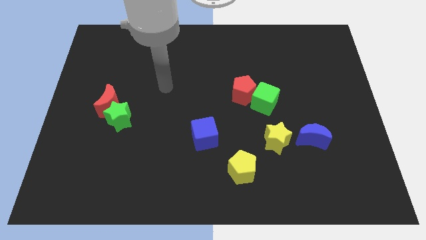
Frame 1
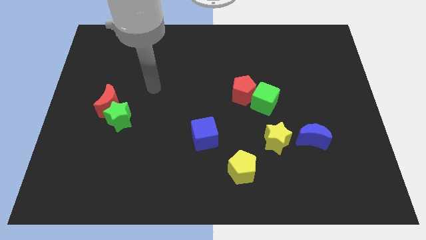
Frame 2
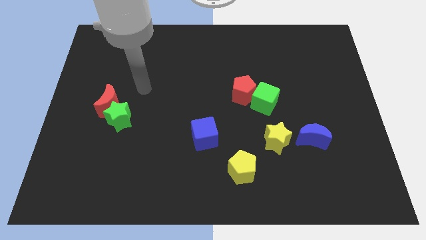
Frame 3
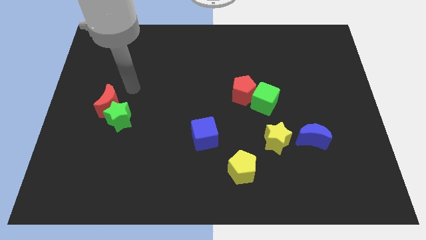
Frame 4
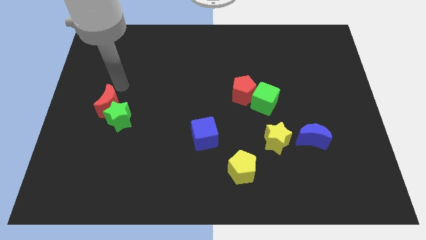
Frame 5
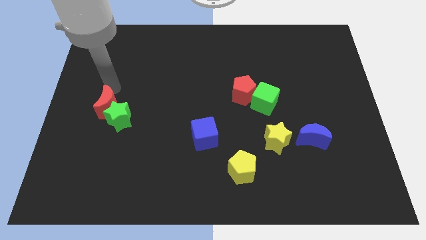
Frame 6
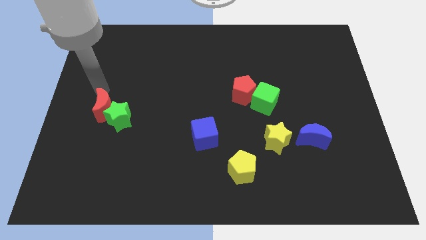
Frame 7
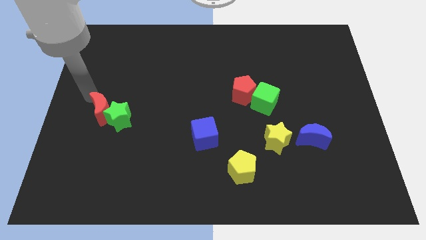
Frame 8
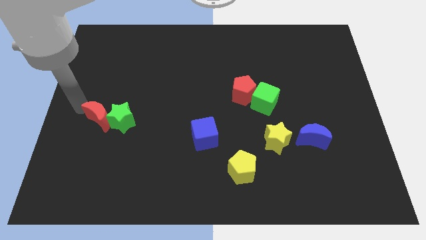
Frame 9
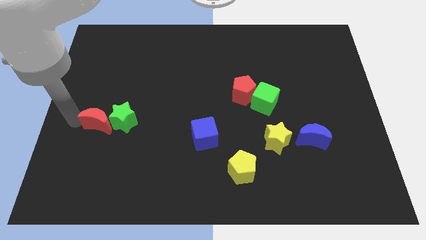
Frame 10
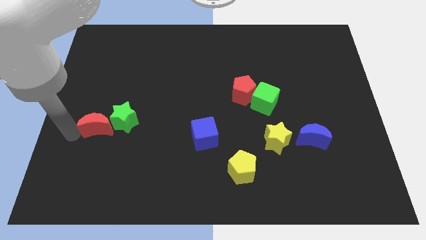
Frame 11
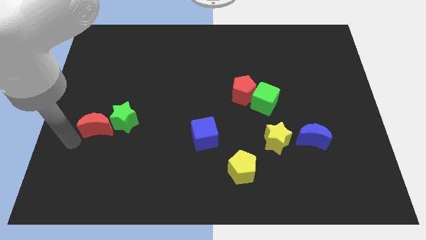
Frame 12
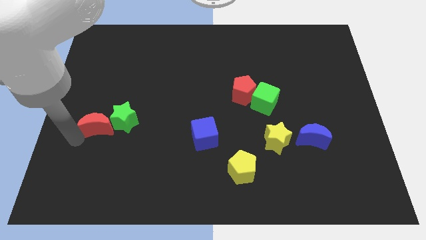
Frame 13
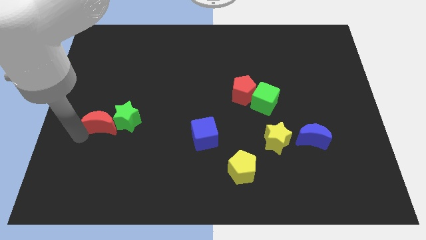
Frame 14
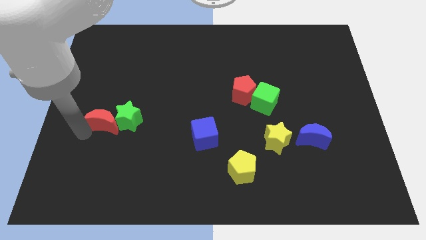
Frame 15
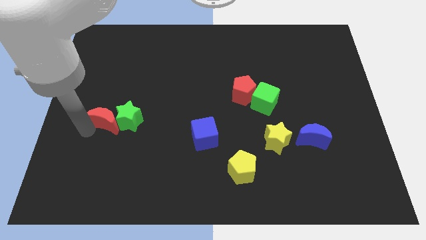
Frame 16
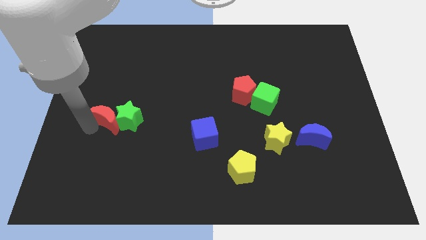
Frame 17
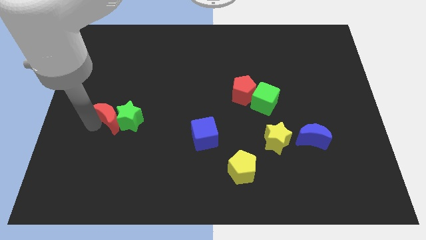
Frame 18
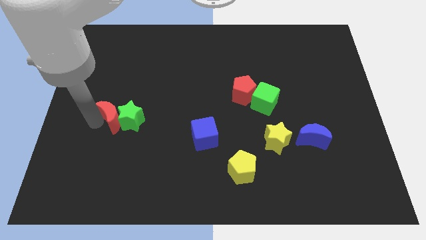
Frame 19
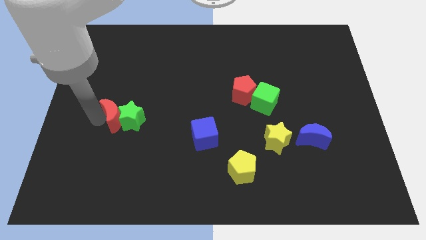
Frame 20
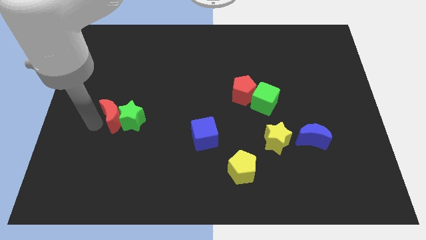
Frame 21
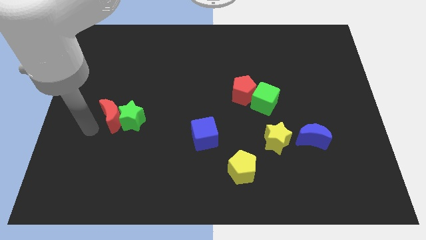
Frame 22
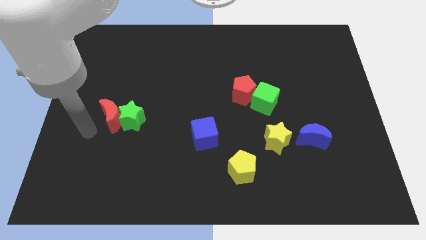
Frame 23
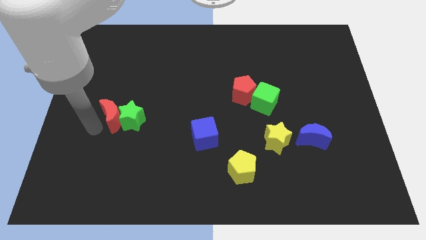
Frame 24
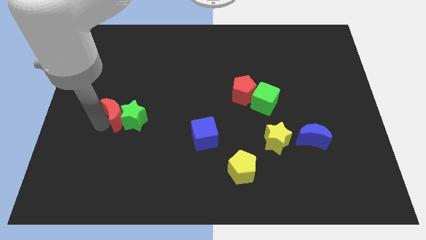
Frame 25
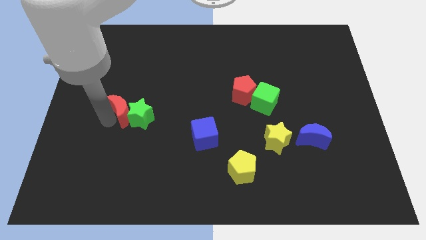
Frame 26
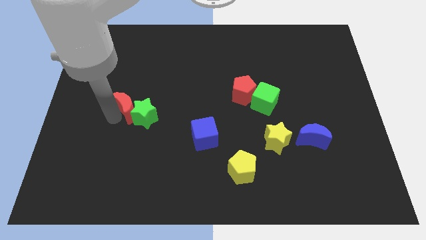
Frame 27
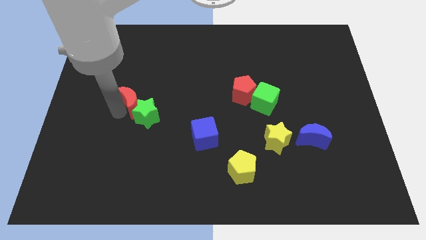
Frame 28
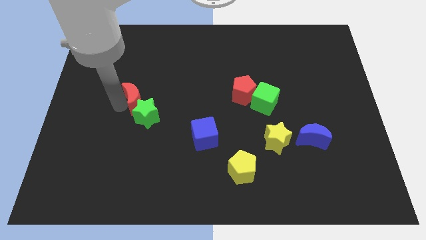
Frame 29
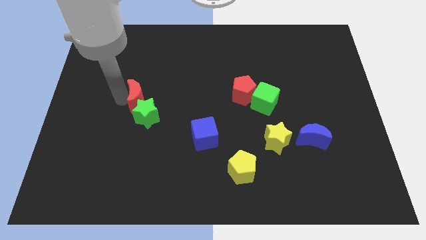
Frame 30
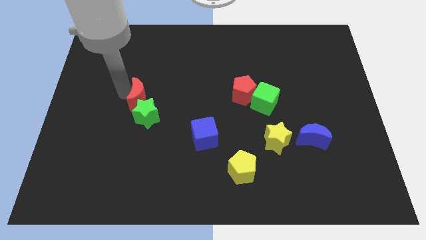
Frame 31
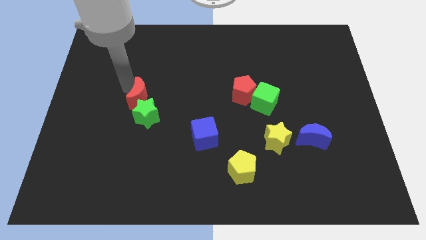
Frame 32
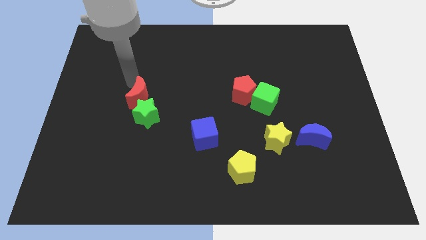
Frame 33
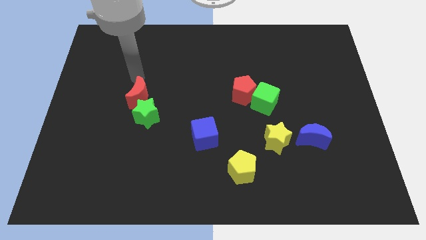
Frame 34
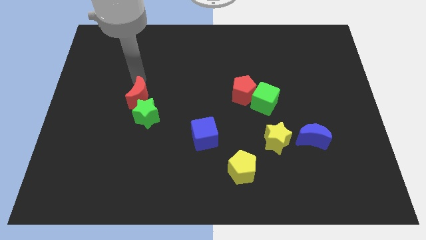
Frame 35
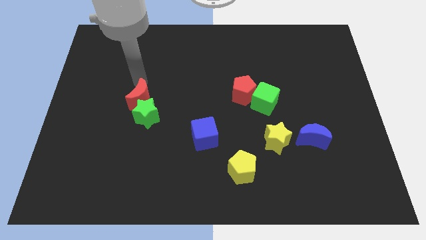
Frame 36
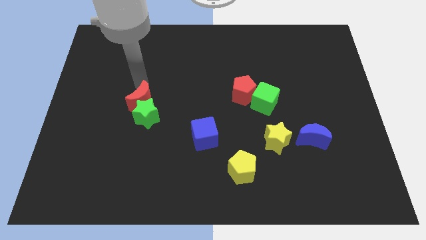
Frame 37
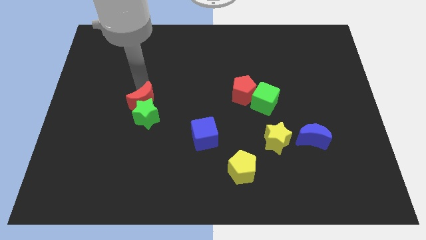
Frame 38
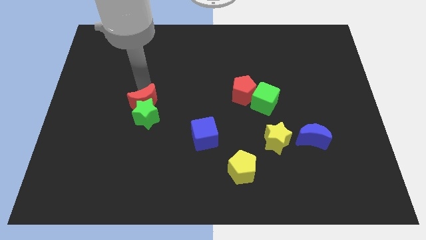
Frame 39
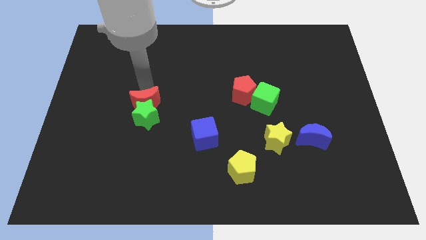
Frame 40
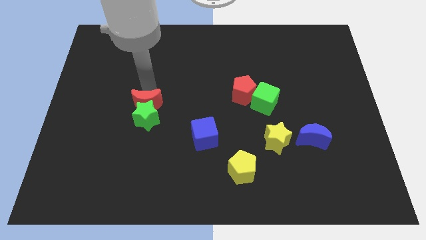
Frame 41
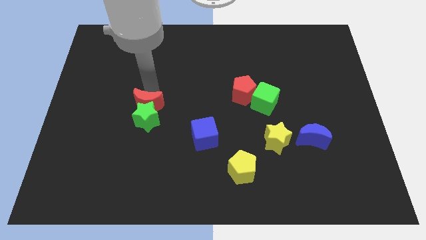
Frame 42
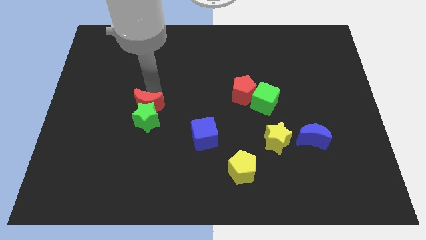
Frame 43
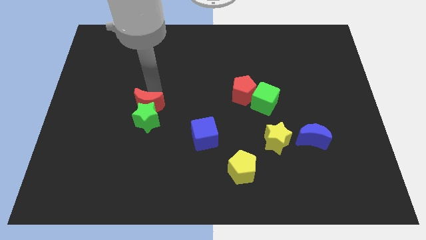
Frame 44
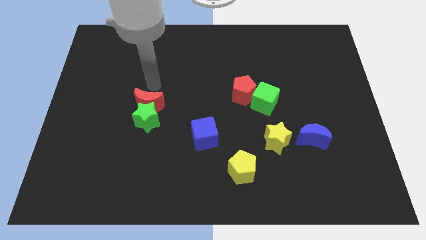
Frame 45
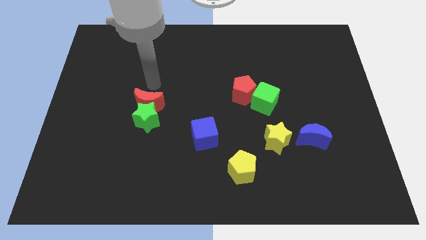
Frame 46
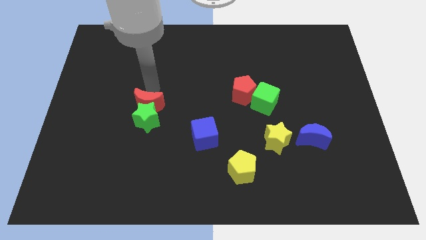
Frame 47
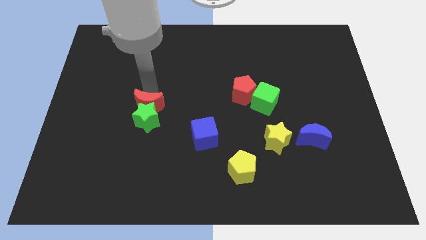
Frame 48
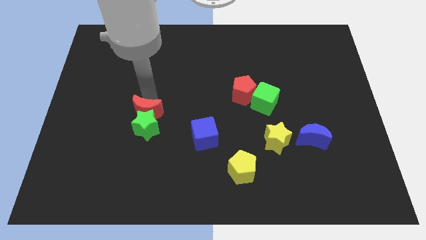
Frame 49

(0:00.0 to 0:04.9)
slightly slide the red moon downwards and right

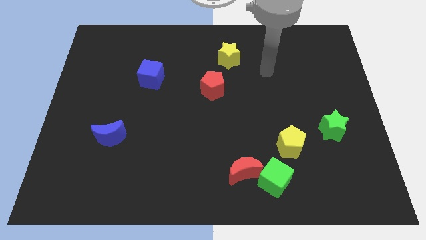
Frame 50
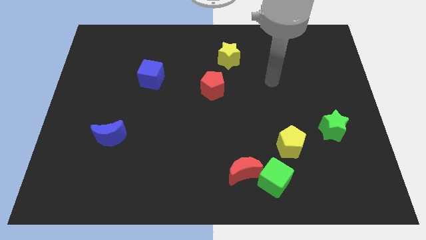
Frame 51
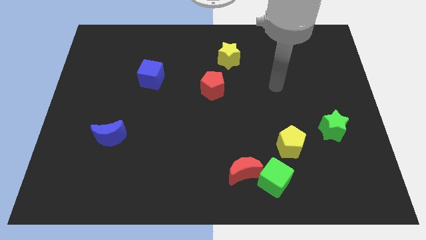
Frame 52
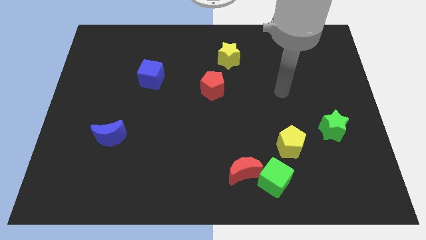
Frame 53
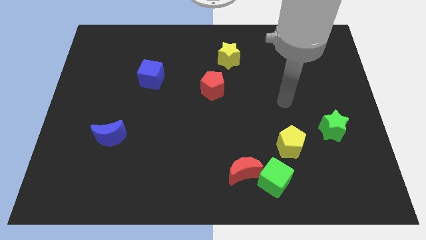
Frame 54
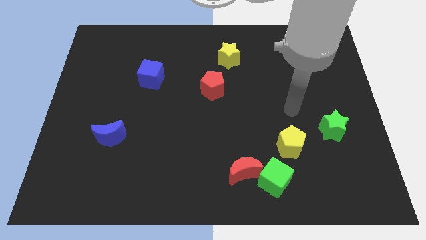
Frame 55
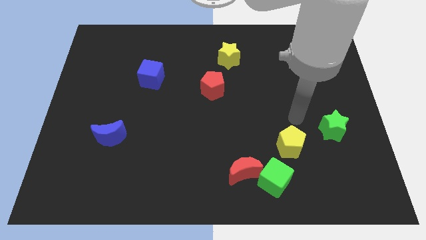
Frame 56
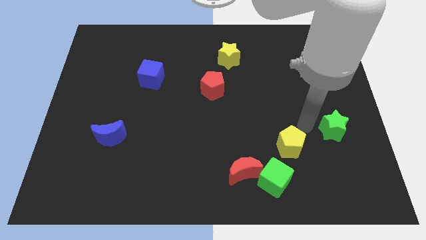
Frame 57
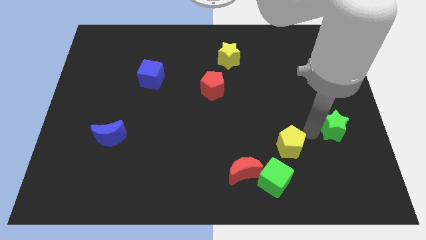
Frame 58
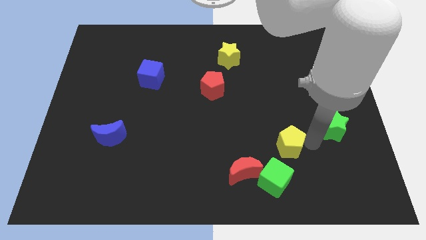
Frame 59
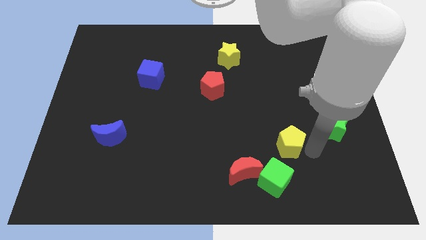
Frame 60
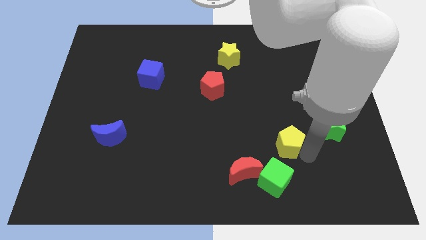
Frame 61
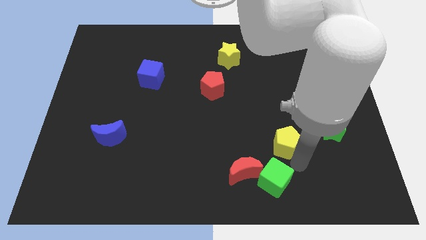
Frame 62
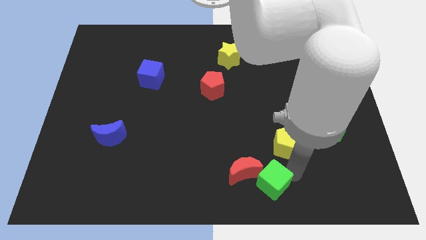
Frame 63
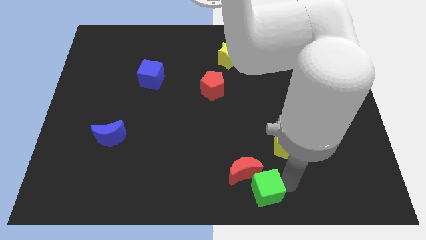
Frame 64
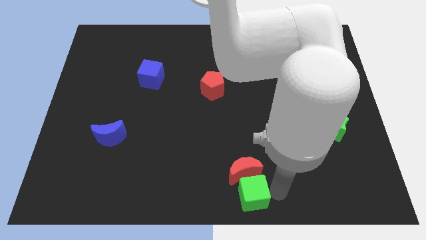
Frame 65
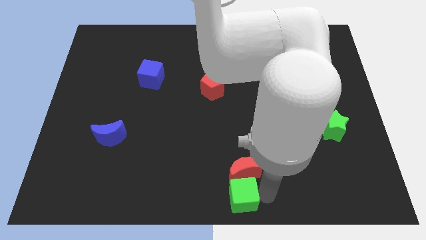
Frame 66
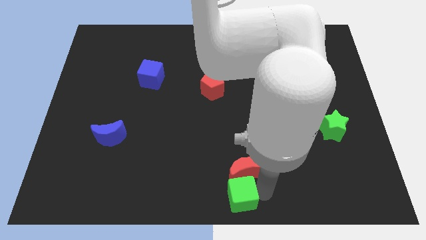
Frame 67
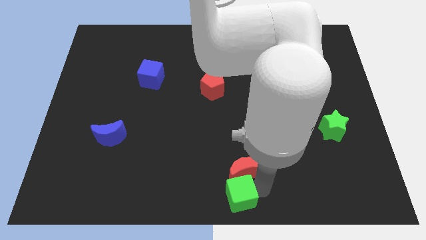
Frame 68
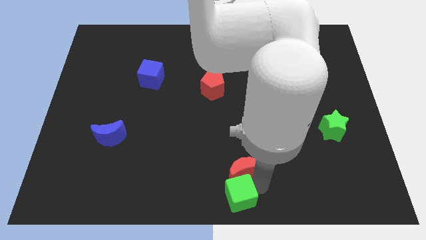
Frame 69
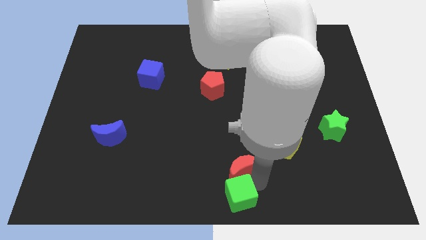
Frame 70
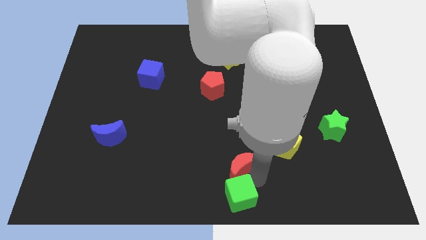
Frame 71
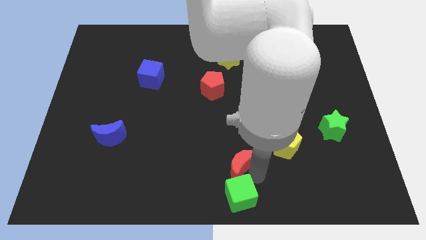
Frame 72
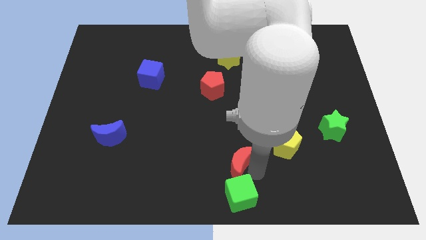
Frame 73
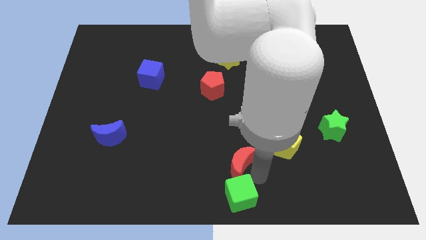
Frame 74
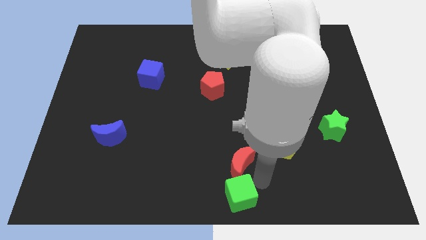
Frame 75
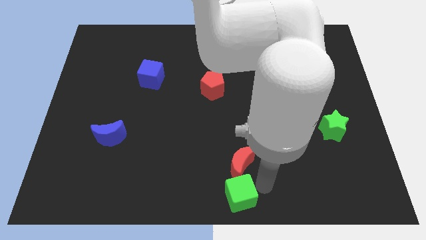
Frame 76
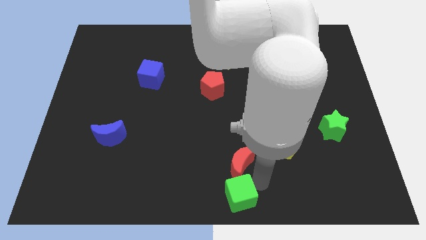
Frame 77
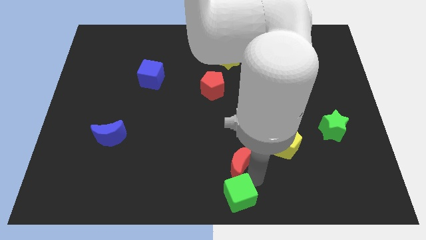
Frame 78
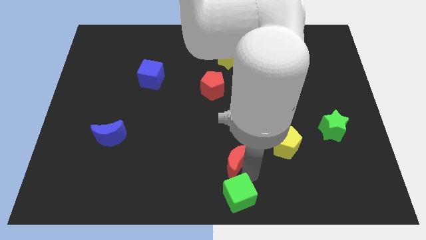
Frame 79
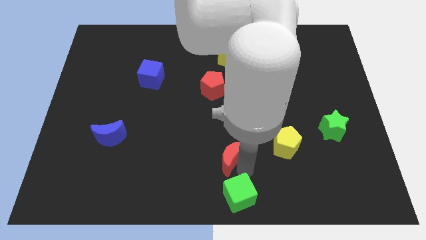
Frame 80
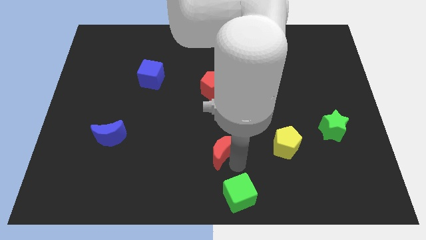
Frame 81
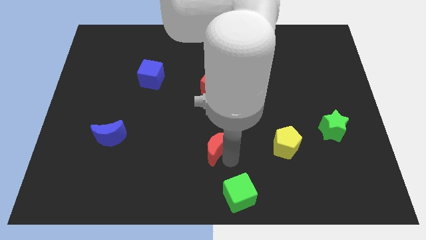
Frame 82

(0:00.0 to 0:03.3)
slide the red moon a little bit up and then left
